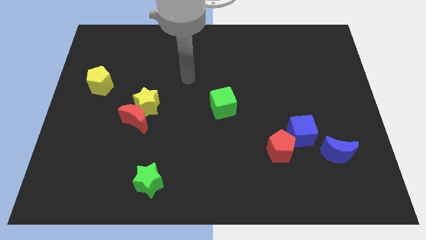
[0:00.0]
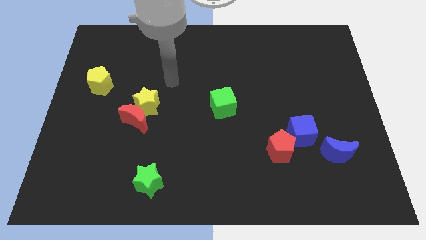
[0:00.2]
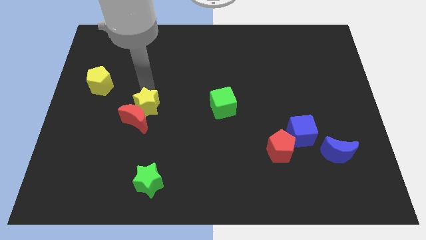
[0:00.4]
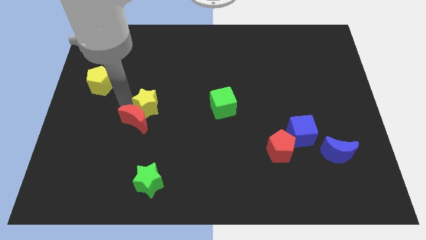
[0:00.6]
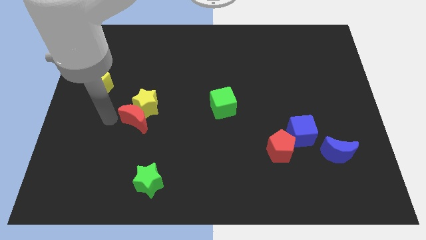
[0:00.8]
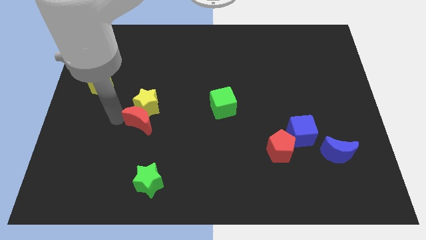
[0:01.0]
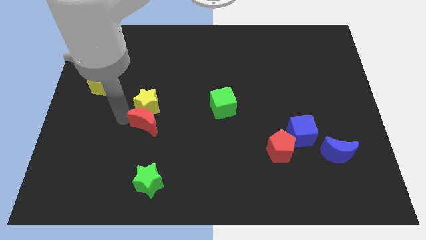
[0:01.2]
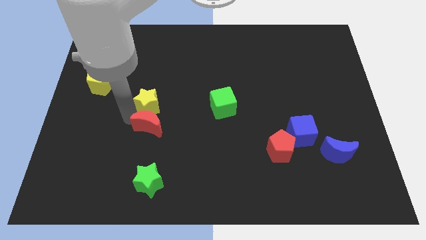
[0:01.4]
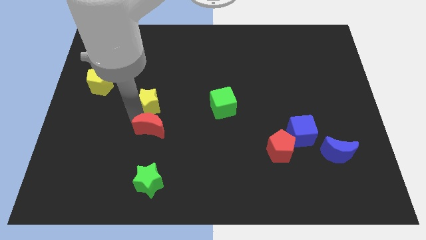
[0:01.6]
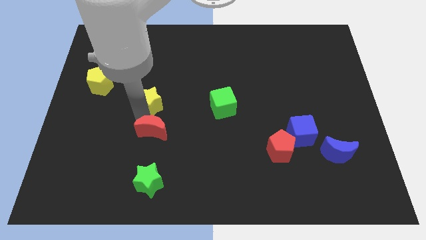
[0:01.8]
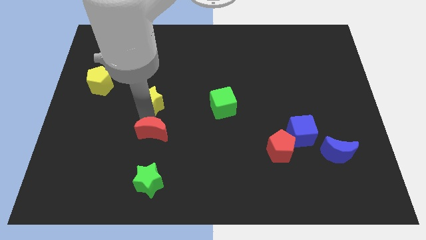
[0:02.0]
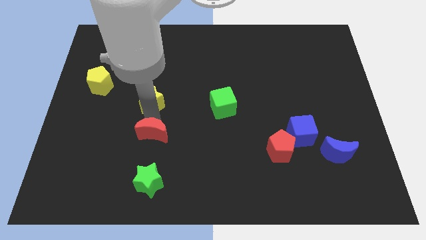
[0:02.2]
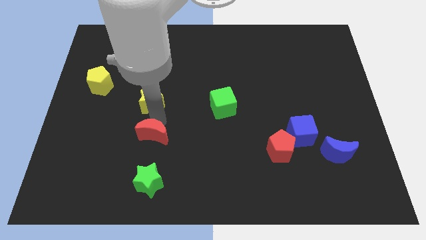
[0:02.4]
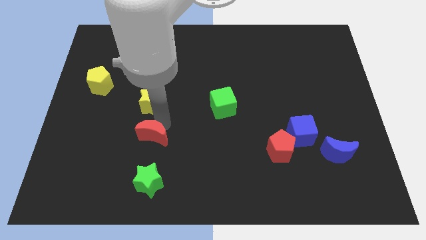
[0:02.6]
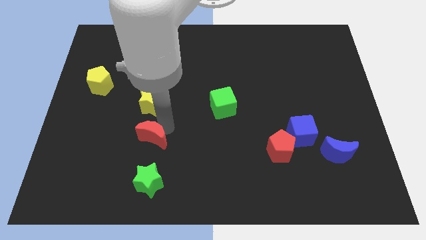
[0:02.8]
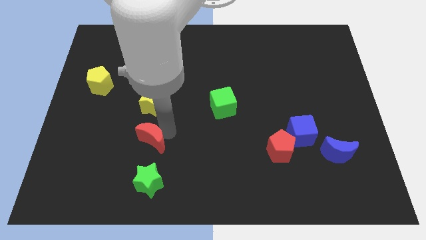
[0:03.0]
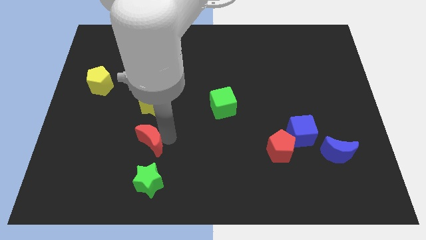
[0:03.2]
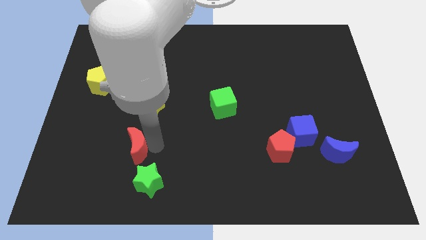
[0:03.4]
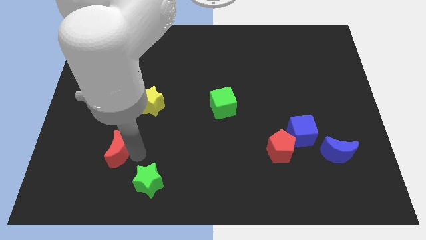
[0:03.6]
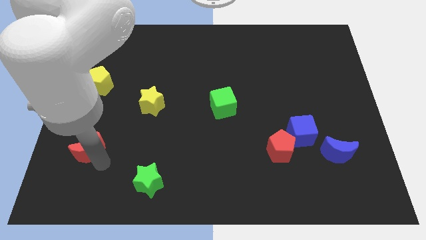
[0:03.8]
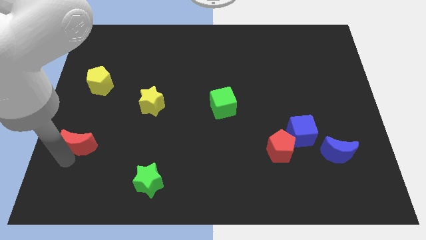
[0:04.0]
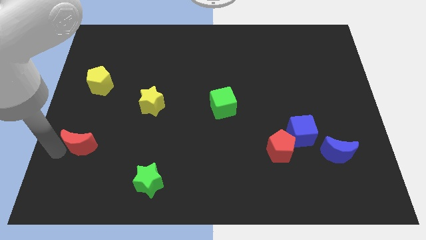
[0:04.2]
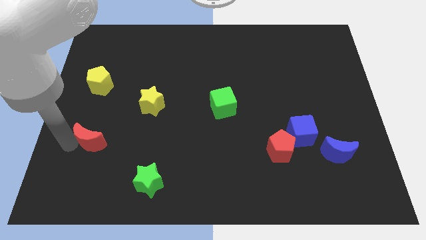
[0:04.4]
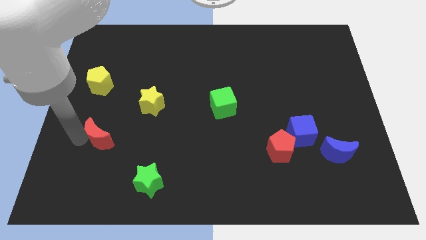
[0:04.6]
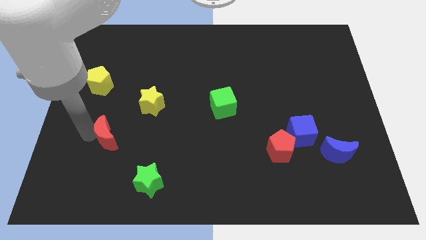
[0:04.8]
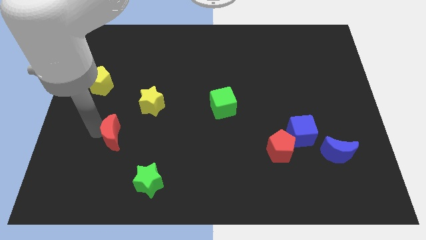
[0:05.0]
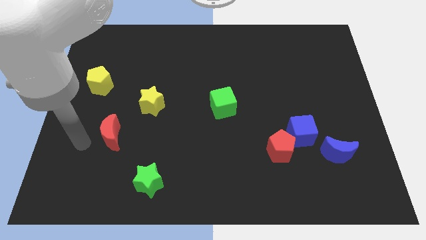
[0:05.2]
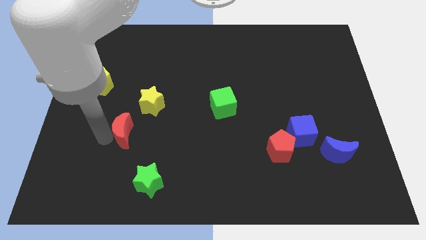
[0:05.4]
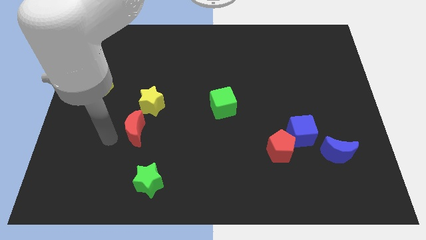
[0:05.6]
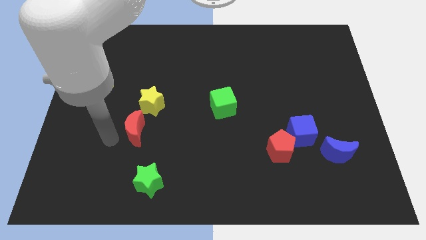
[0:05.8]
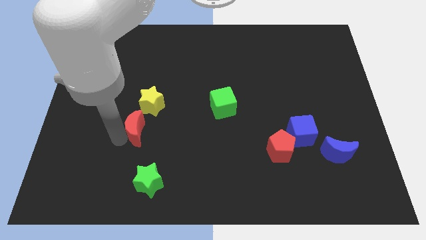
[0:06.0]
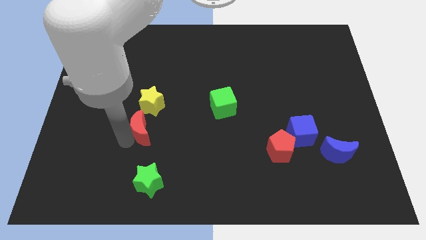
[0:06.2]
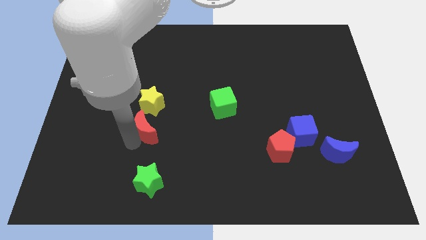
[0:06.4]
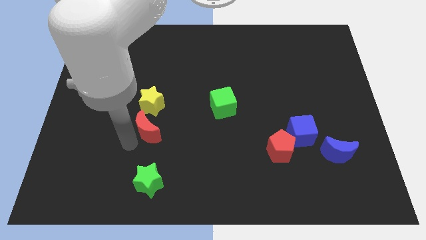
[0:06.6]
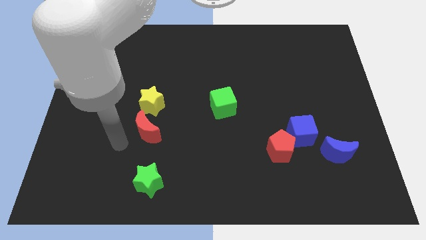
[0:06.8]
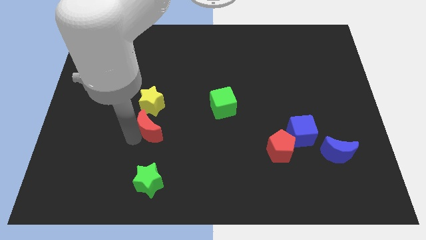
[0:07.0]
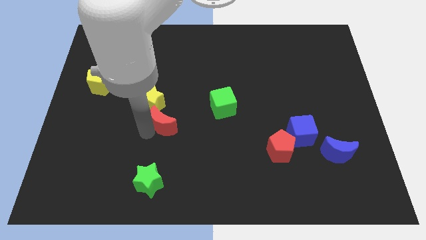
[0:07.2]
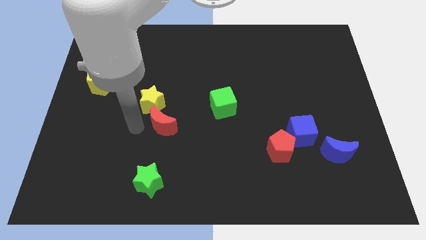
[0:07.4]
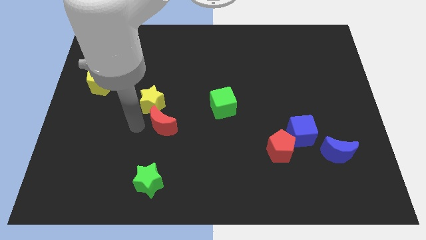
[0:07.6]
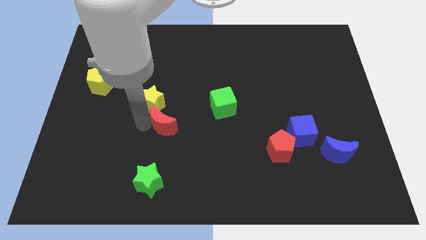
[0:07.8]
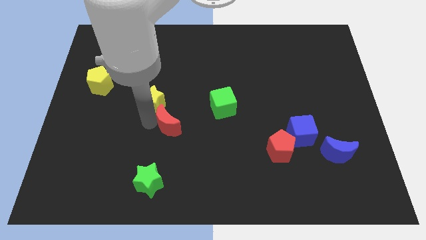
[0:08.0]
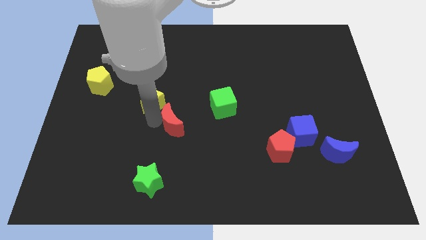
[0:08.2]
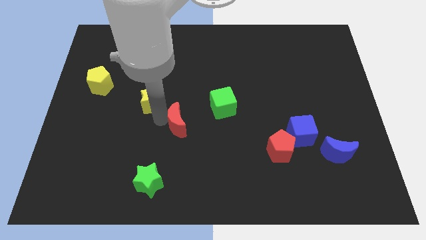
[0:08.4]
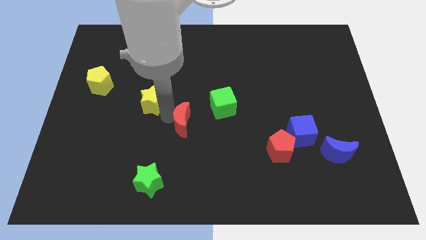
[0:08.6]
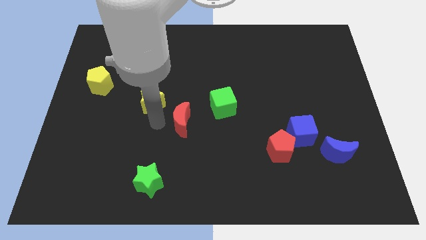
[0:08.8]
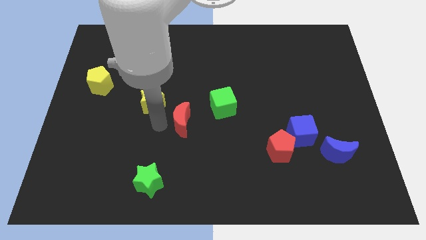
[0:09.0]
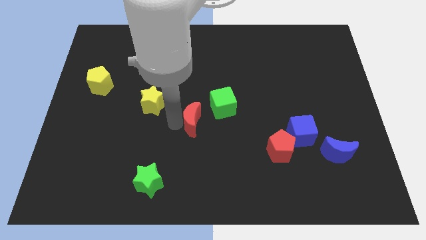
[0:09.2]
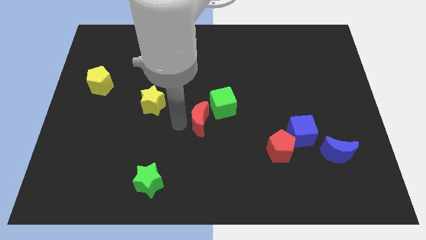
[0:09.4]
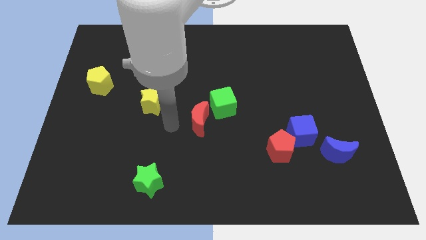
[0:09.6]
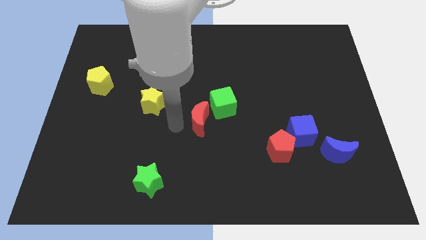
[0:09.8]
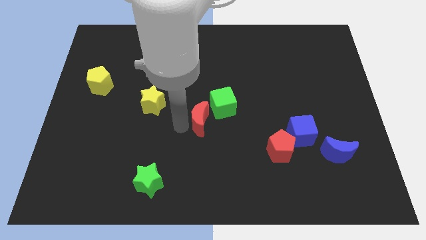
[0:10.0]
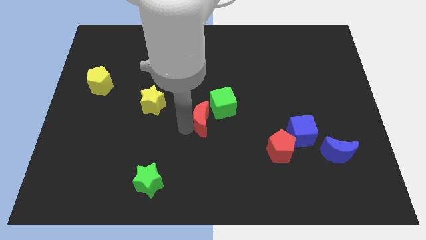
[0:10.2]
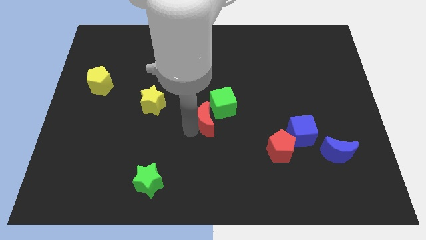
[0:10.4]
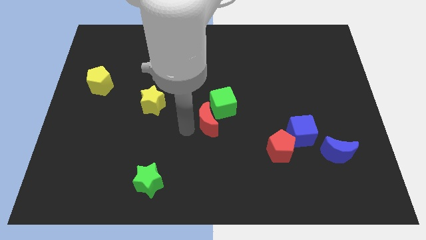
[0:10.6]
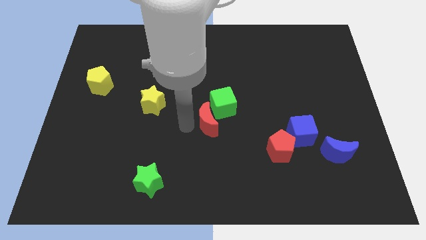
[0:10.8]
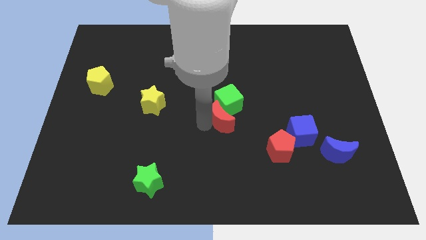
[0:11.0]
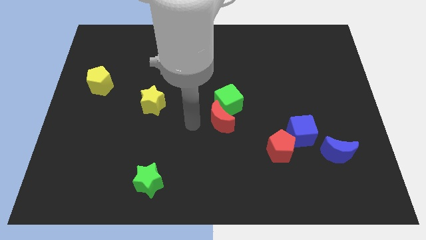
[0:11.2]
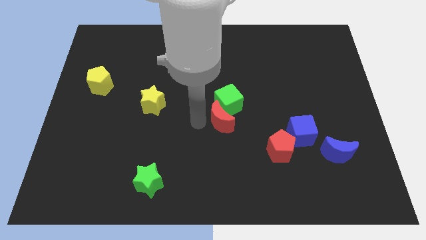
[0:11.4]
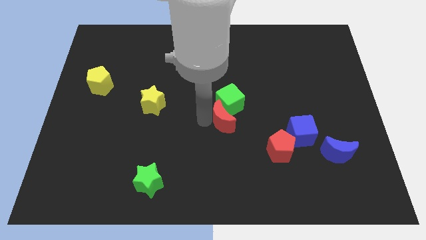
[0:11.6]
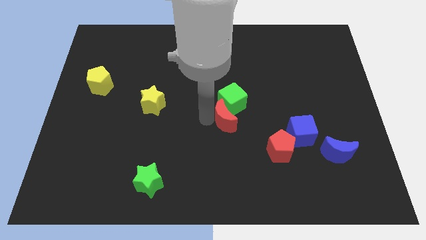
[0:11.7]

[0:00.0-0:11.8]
slide the red moon right

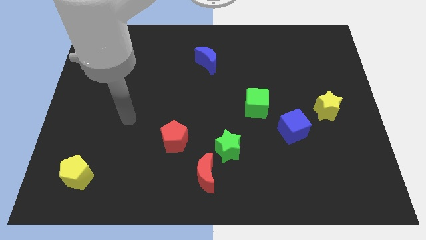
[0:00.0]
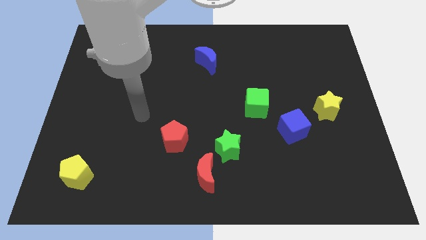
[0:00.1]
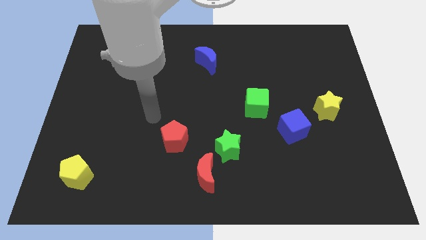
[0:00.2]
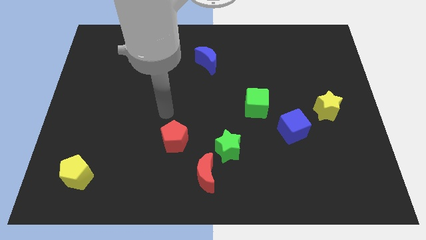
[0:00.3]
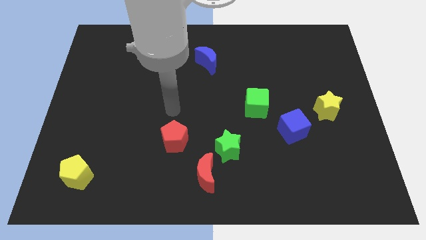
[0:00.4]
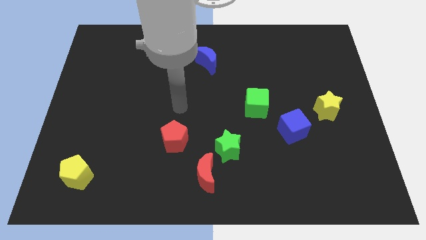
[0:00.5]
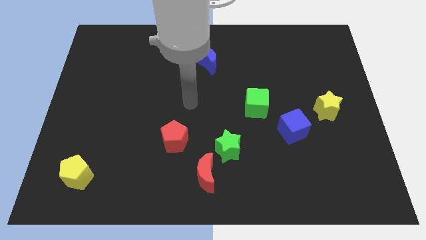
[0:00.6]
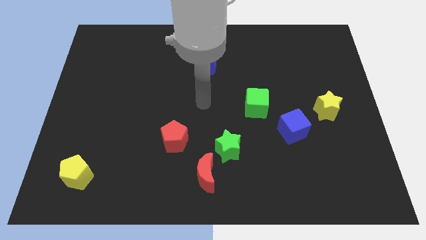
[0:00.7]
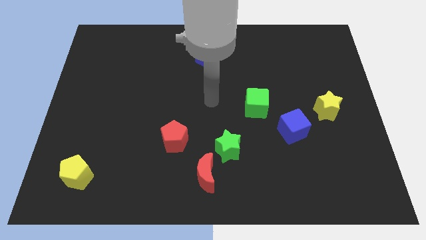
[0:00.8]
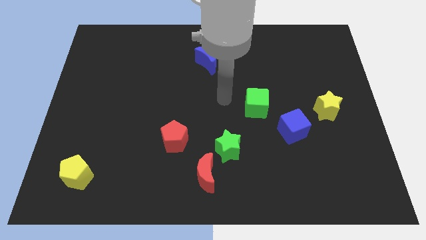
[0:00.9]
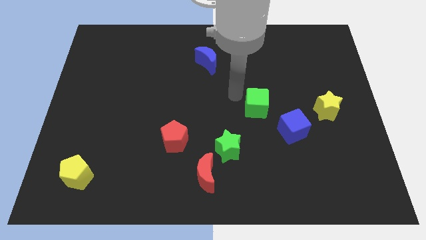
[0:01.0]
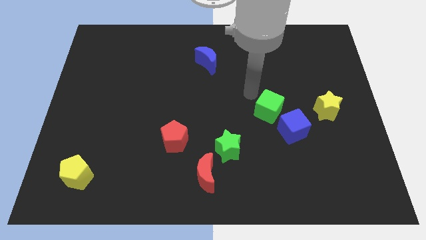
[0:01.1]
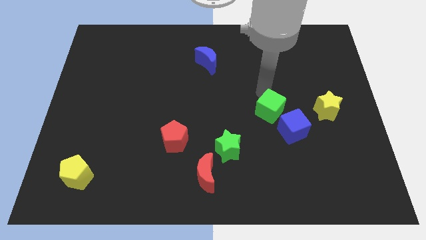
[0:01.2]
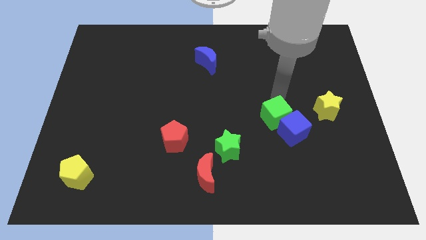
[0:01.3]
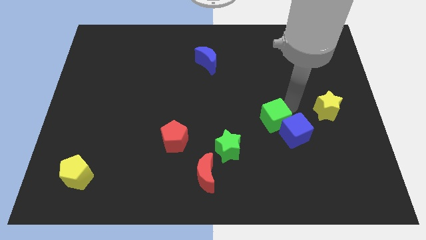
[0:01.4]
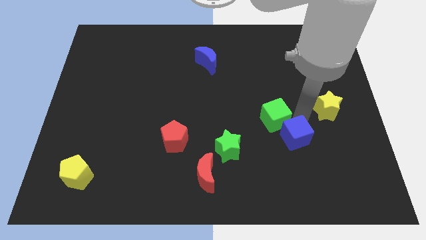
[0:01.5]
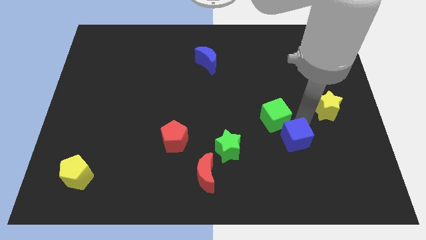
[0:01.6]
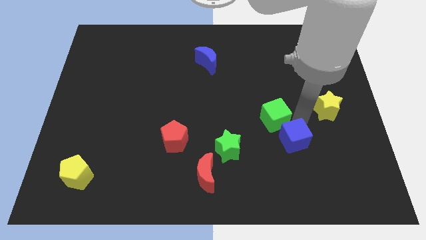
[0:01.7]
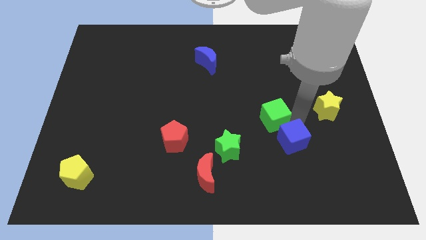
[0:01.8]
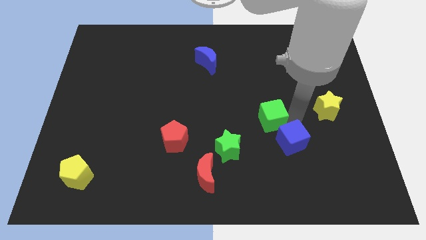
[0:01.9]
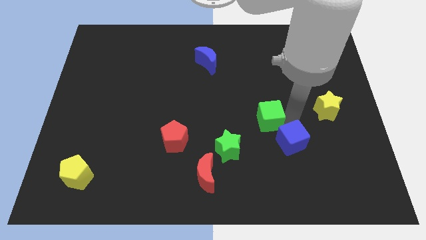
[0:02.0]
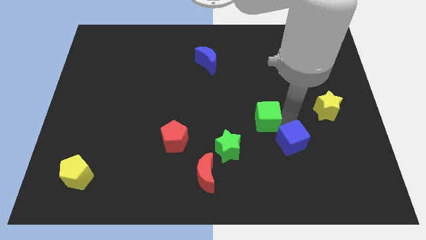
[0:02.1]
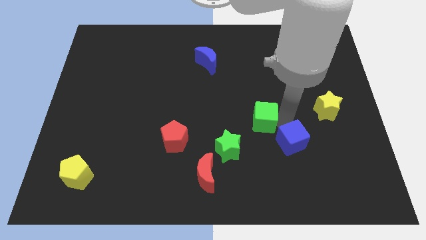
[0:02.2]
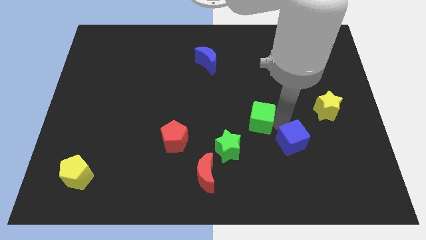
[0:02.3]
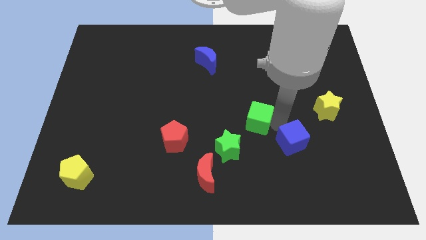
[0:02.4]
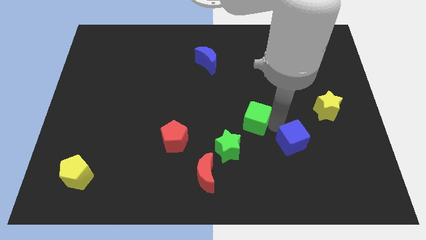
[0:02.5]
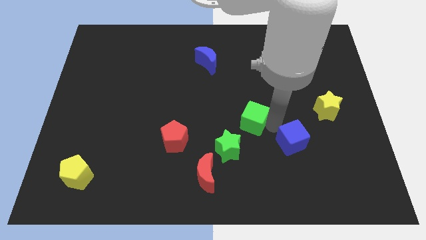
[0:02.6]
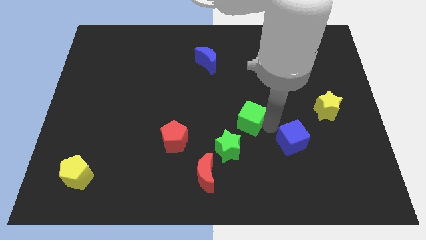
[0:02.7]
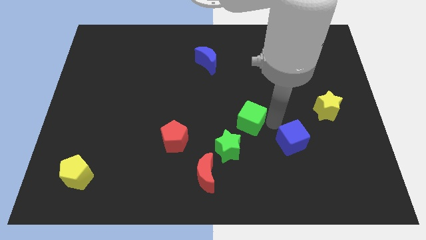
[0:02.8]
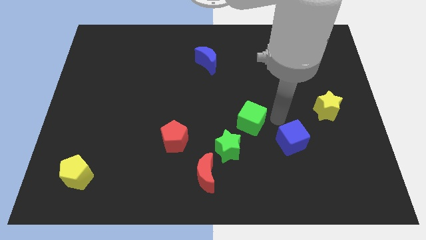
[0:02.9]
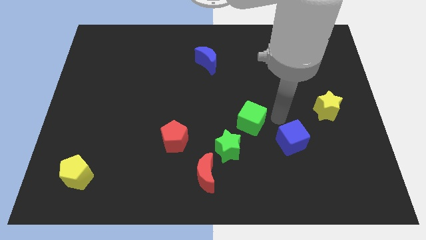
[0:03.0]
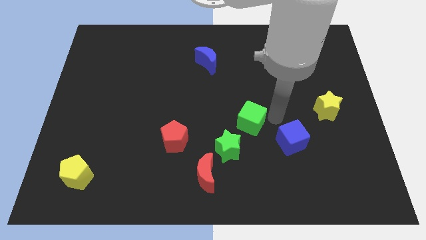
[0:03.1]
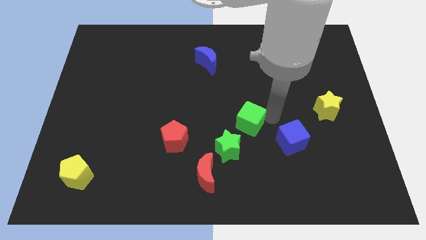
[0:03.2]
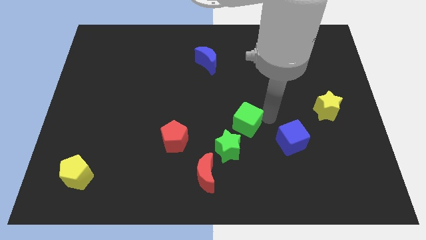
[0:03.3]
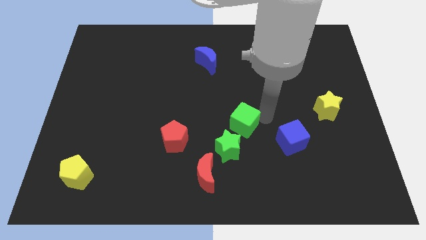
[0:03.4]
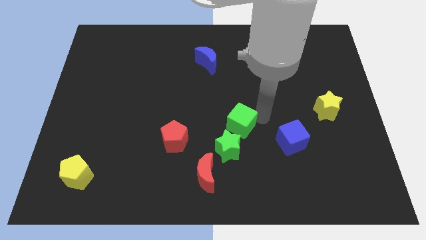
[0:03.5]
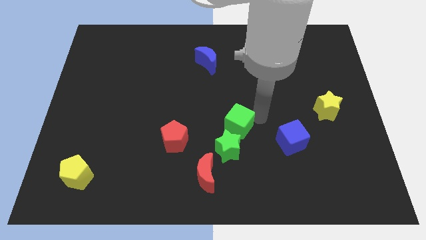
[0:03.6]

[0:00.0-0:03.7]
move the green cube somewhat down and to the left diagonally
